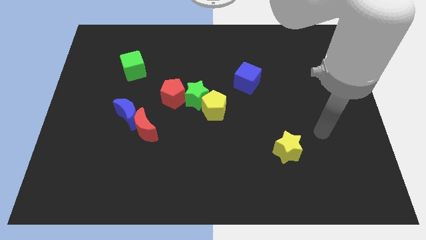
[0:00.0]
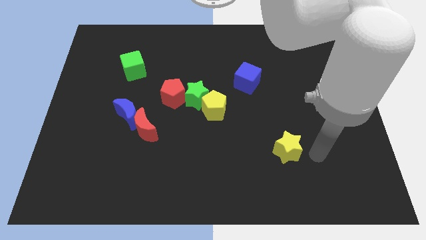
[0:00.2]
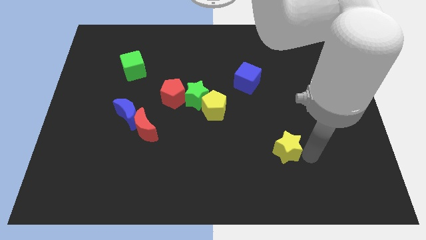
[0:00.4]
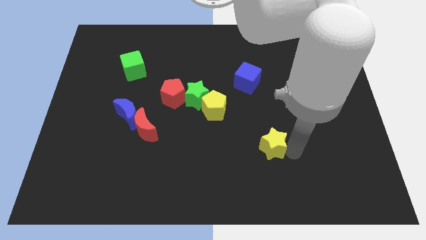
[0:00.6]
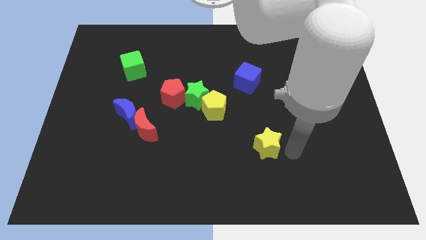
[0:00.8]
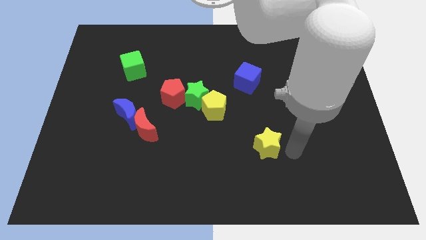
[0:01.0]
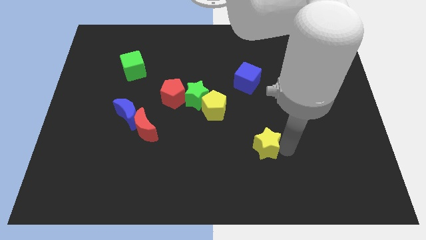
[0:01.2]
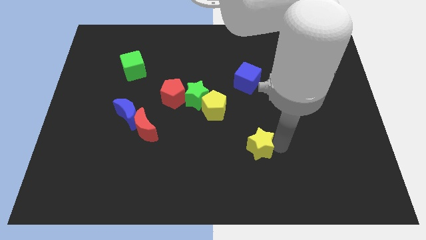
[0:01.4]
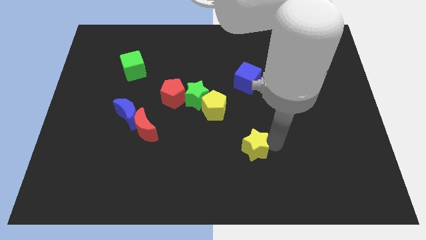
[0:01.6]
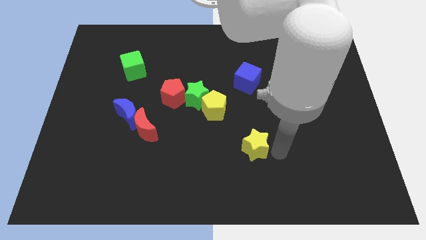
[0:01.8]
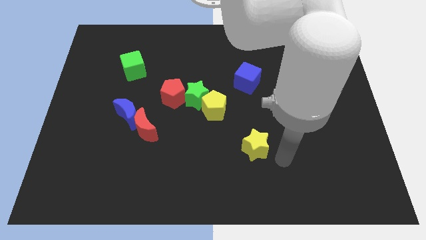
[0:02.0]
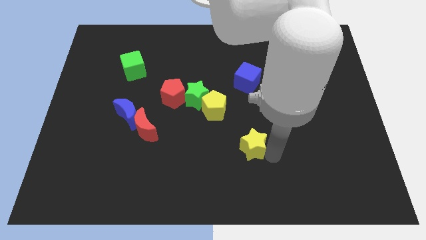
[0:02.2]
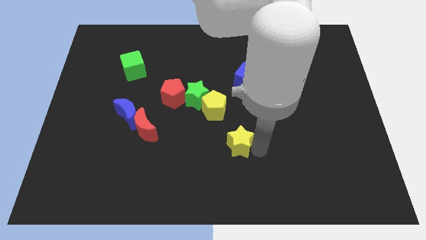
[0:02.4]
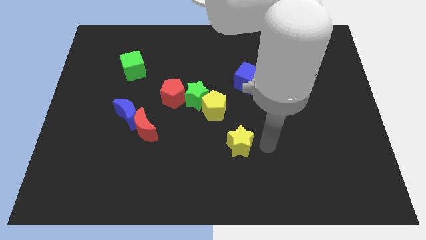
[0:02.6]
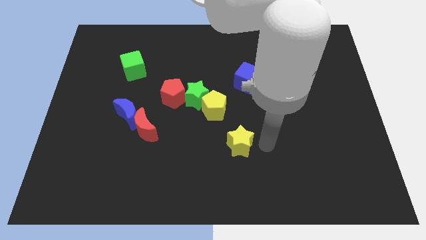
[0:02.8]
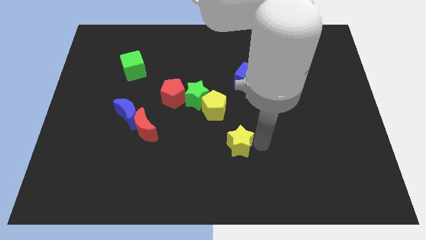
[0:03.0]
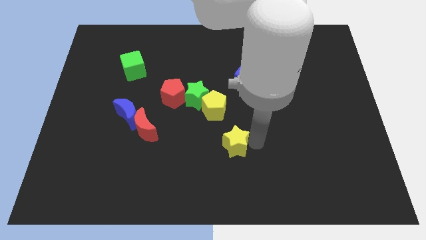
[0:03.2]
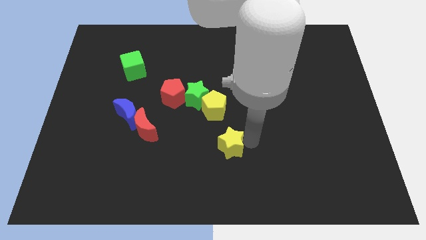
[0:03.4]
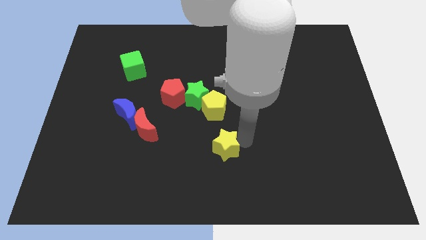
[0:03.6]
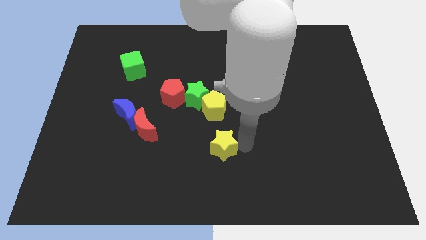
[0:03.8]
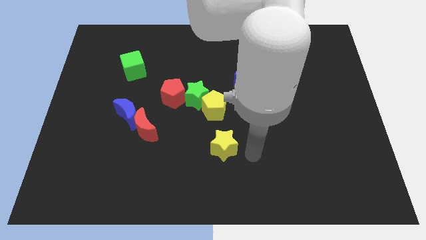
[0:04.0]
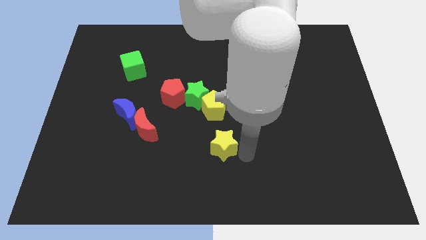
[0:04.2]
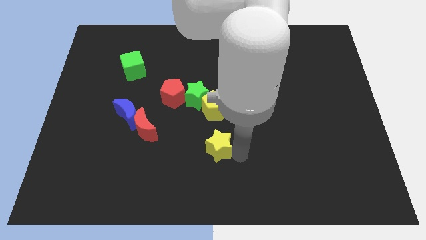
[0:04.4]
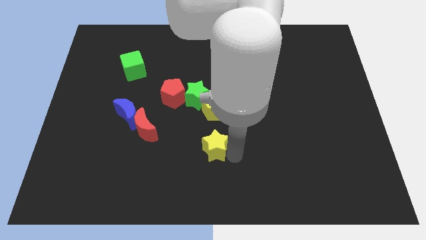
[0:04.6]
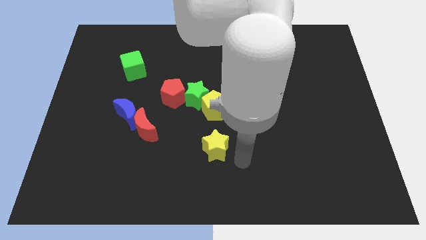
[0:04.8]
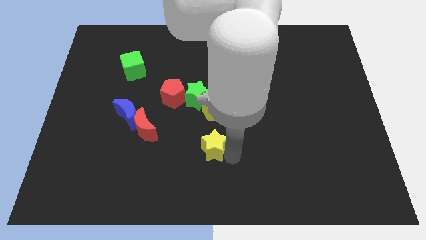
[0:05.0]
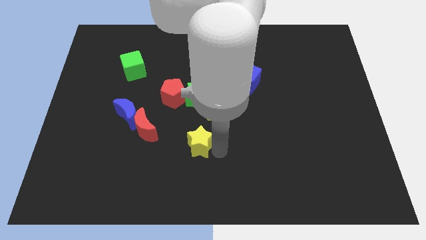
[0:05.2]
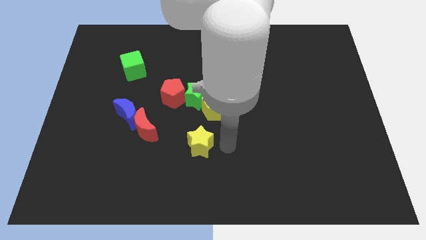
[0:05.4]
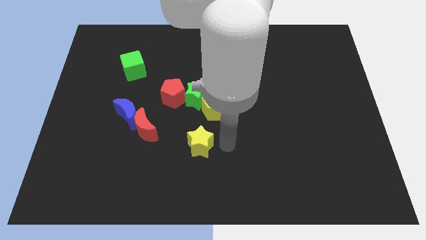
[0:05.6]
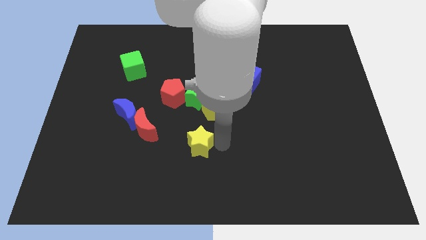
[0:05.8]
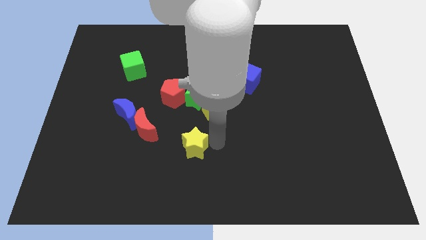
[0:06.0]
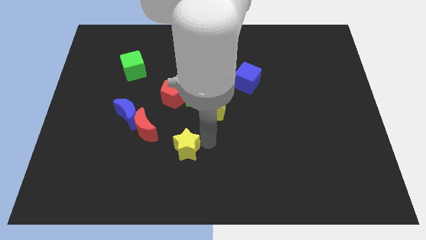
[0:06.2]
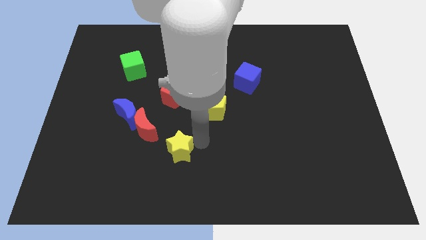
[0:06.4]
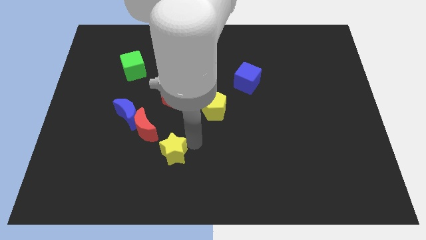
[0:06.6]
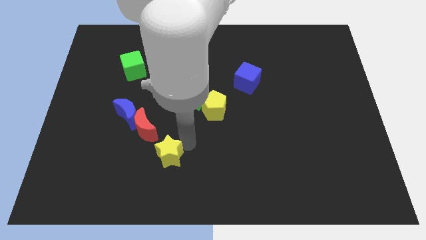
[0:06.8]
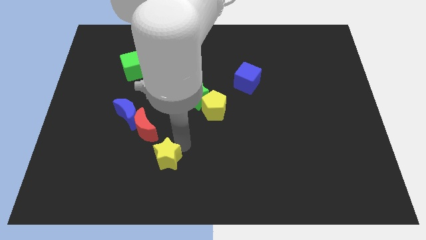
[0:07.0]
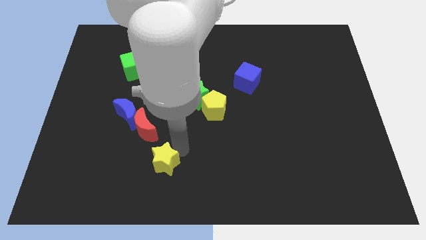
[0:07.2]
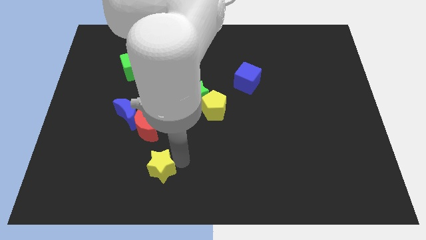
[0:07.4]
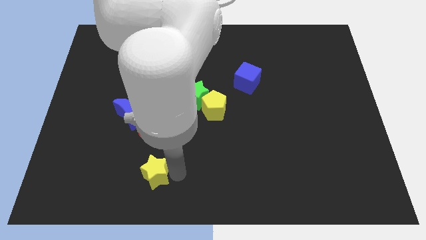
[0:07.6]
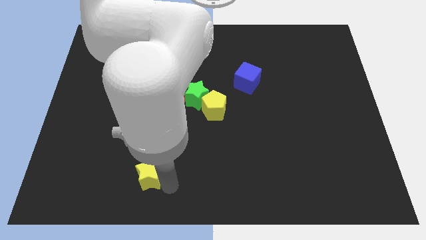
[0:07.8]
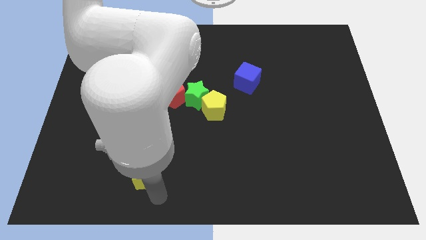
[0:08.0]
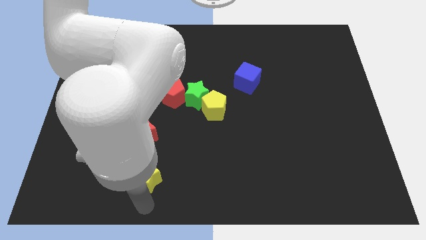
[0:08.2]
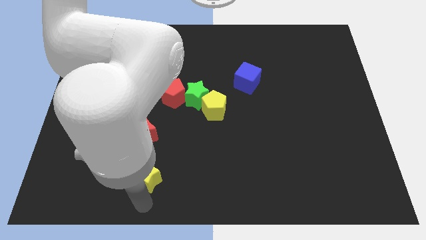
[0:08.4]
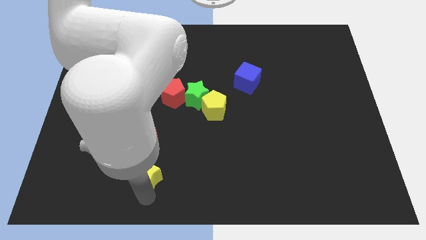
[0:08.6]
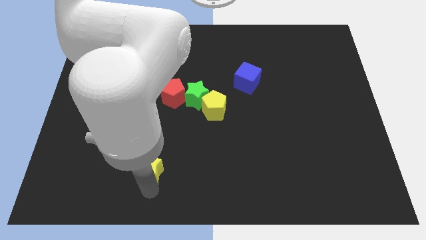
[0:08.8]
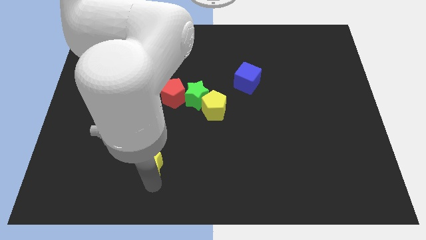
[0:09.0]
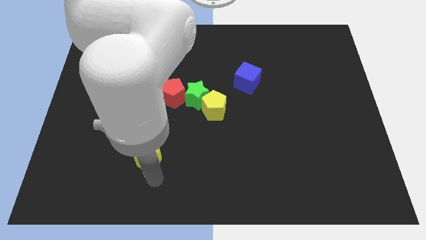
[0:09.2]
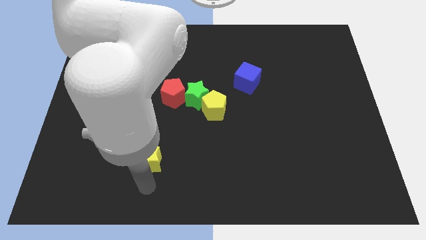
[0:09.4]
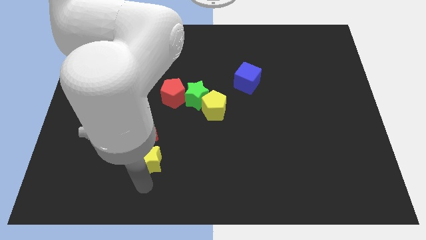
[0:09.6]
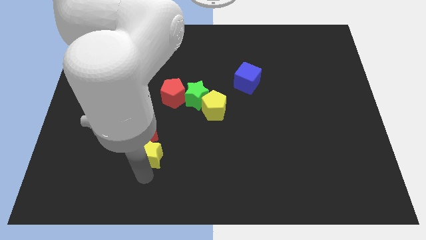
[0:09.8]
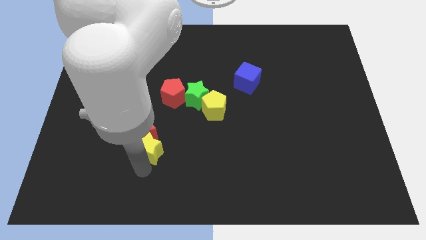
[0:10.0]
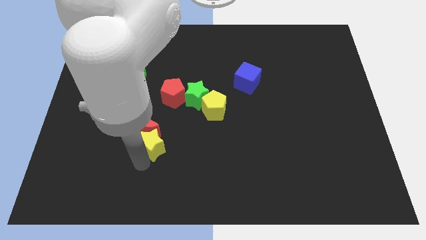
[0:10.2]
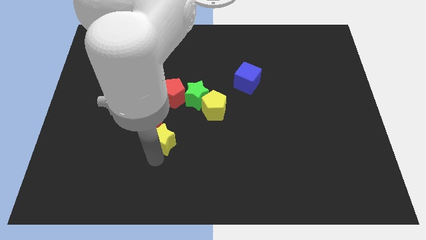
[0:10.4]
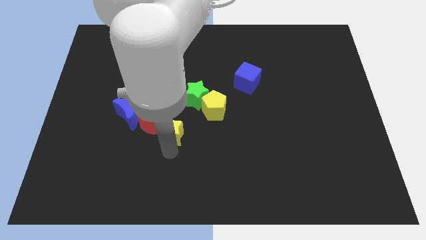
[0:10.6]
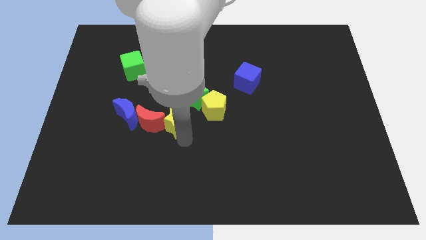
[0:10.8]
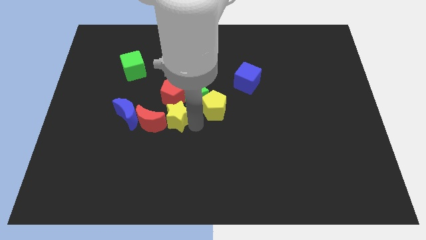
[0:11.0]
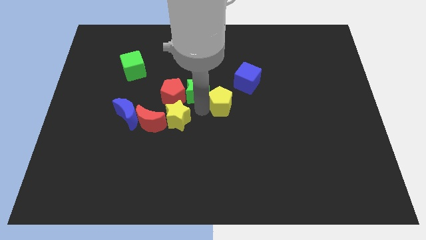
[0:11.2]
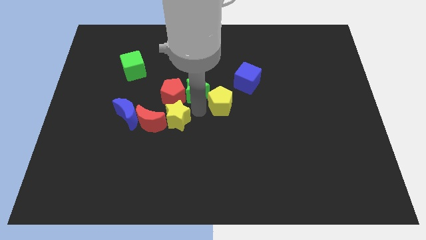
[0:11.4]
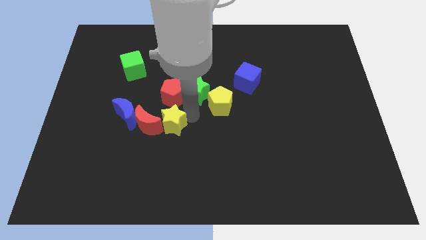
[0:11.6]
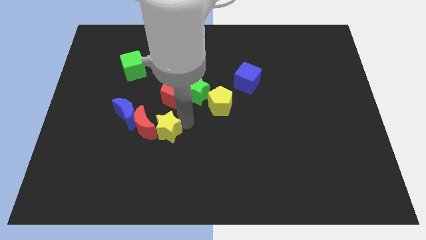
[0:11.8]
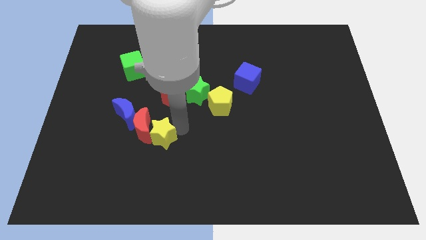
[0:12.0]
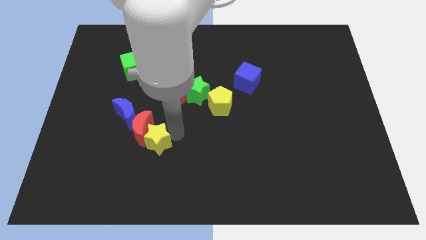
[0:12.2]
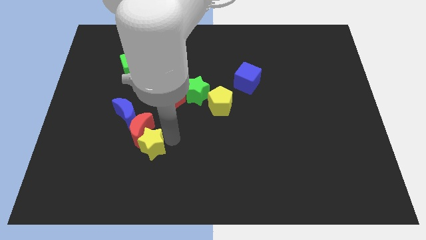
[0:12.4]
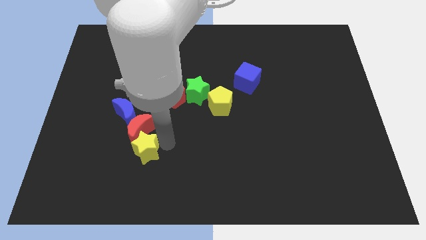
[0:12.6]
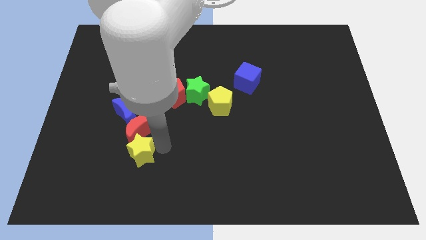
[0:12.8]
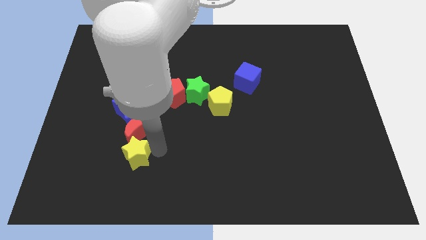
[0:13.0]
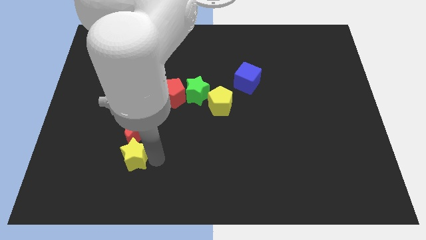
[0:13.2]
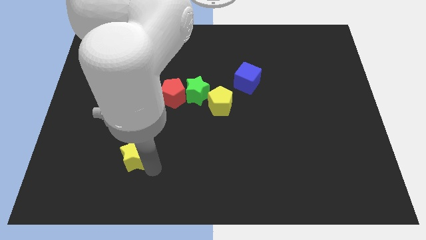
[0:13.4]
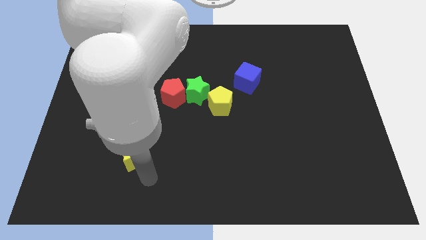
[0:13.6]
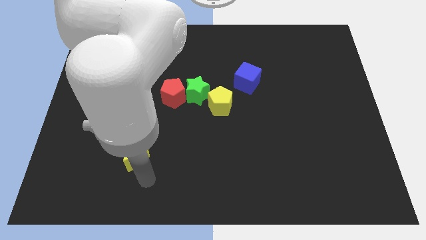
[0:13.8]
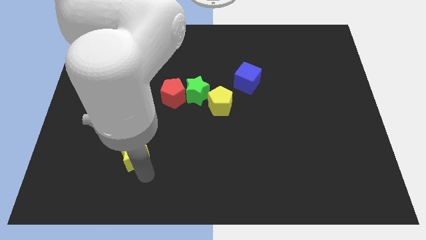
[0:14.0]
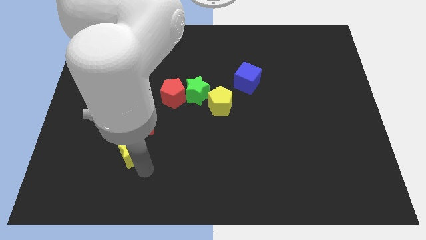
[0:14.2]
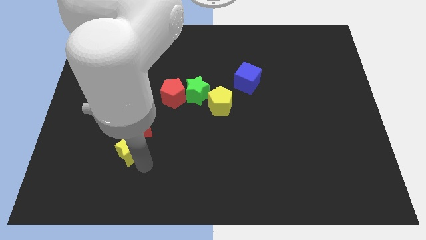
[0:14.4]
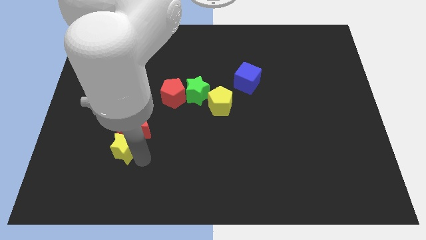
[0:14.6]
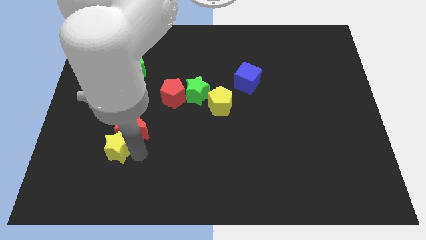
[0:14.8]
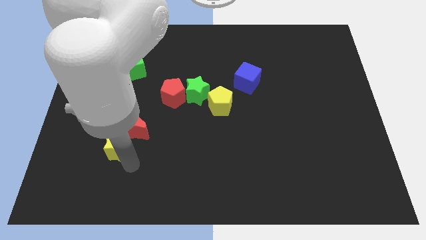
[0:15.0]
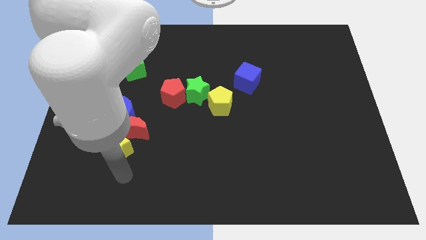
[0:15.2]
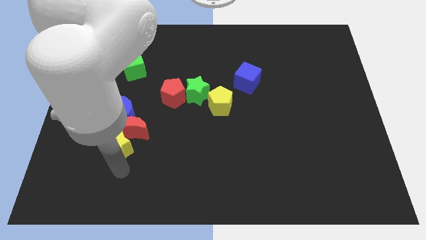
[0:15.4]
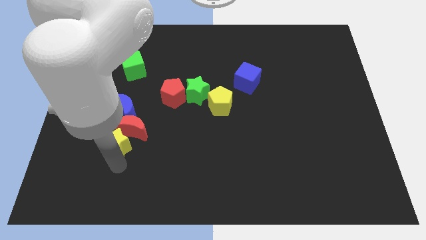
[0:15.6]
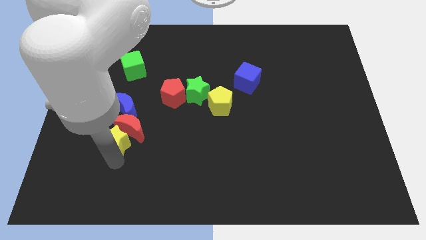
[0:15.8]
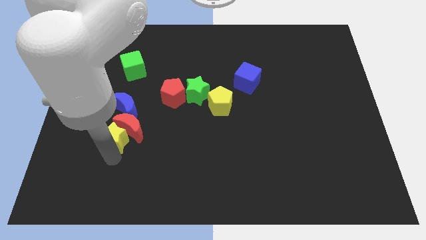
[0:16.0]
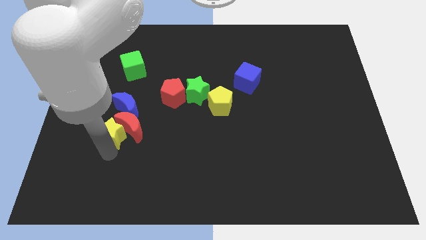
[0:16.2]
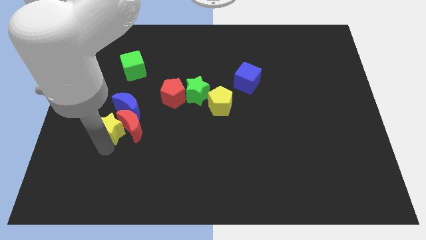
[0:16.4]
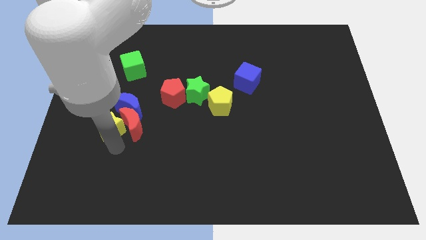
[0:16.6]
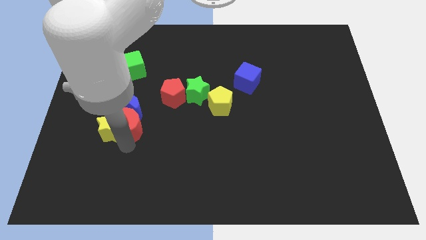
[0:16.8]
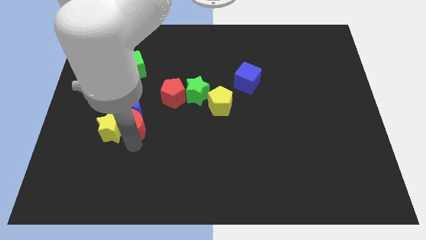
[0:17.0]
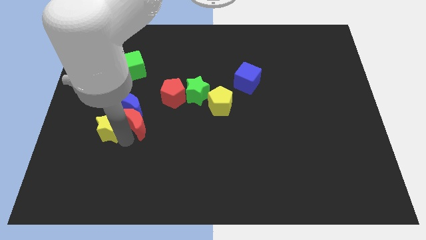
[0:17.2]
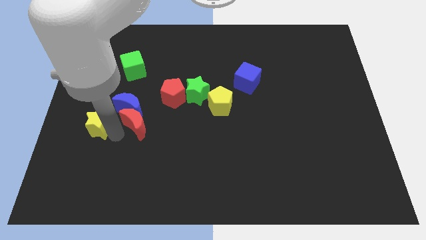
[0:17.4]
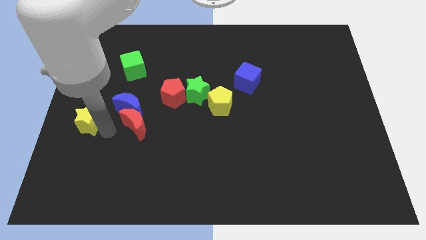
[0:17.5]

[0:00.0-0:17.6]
slide the yellow star to the left side
